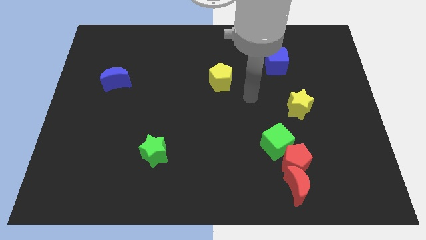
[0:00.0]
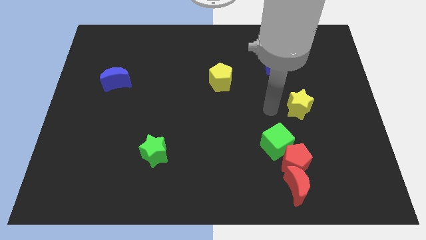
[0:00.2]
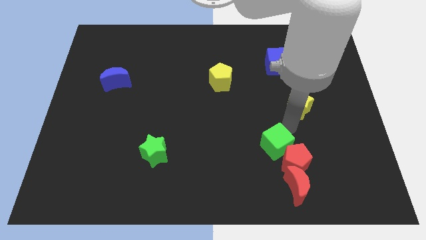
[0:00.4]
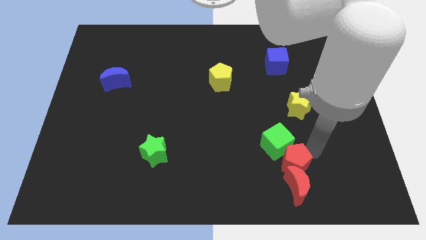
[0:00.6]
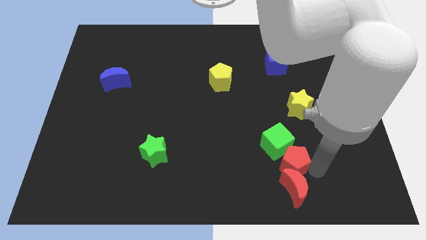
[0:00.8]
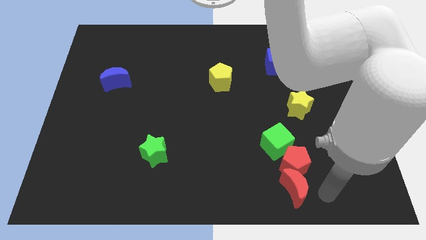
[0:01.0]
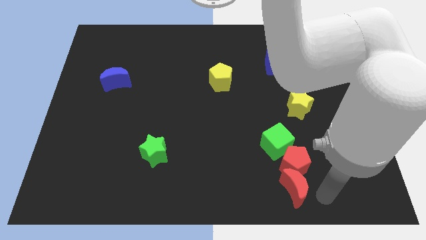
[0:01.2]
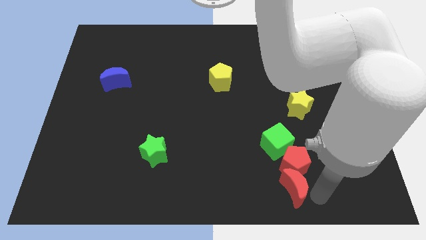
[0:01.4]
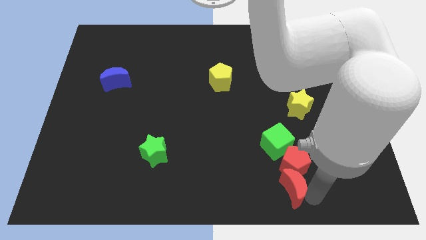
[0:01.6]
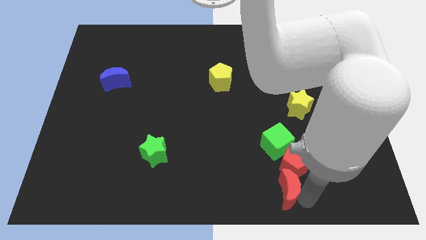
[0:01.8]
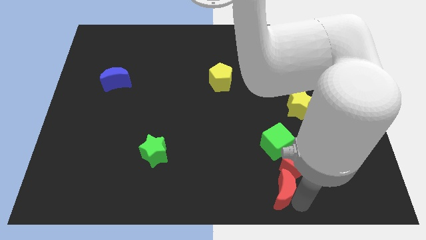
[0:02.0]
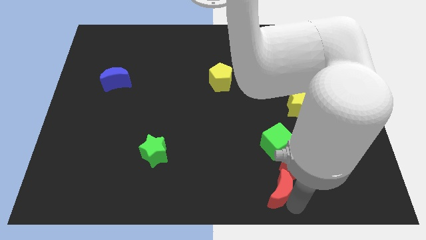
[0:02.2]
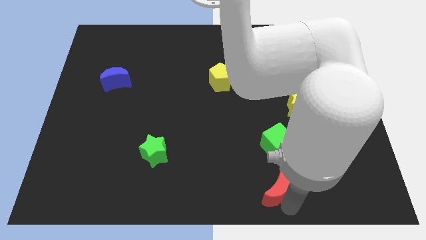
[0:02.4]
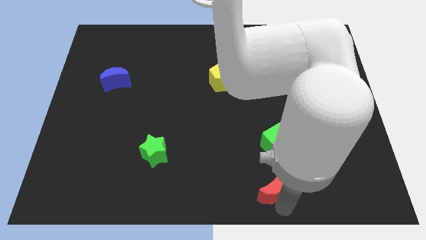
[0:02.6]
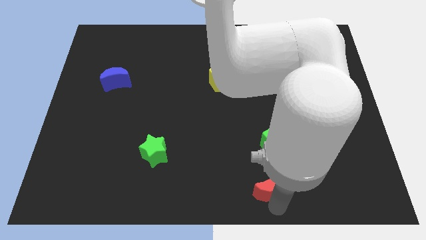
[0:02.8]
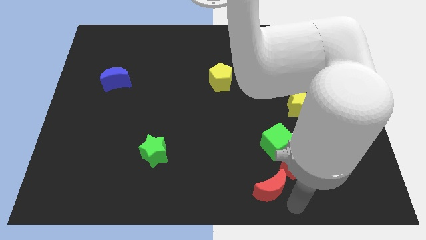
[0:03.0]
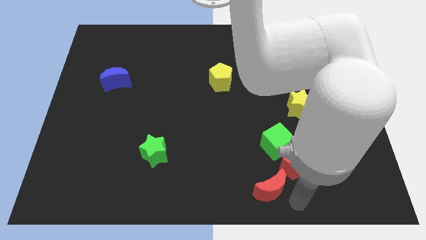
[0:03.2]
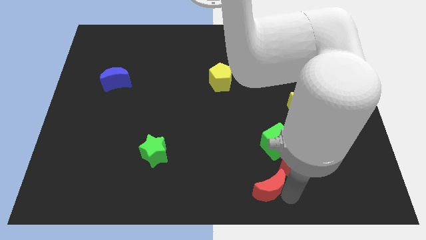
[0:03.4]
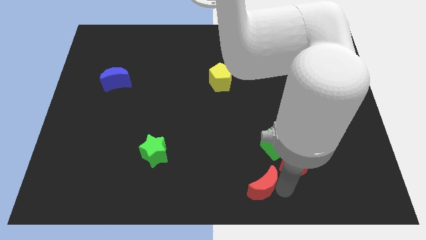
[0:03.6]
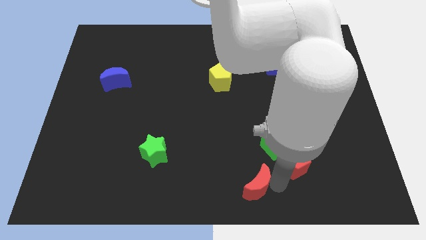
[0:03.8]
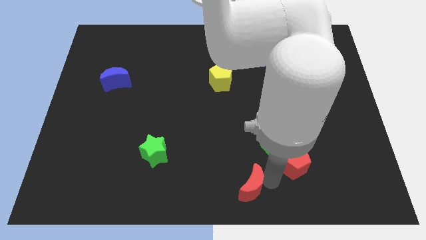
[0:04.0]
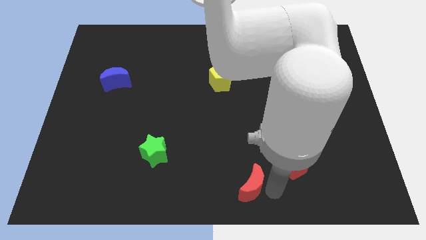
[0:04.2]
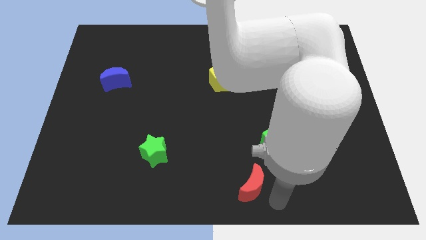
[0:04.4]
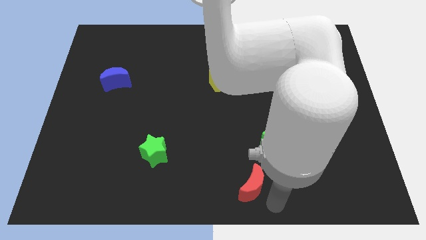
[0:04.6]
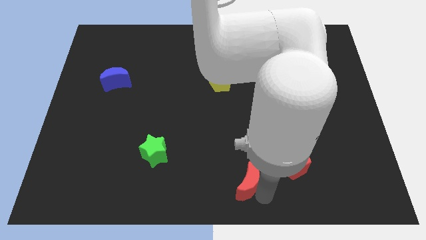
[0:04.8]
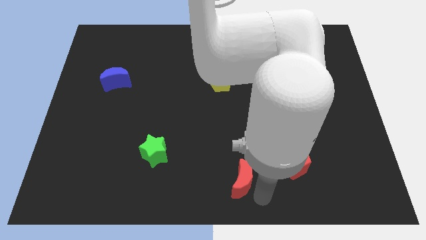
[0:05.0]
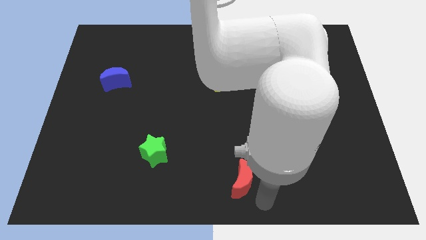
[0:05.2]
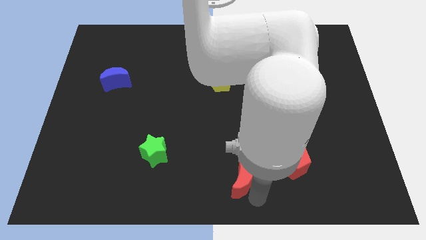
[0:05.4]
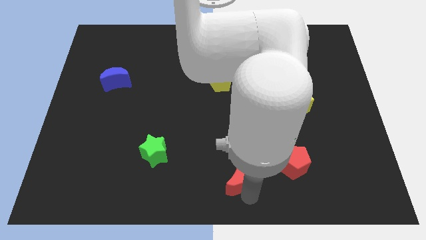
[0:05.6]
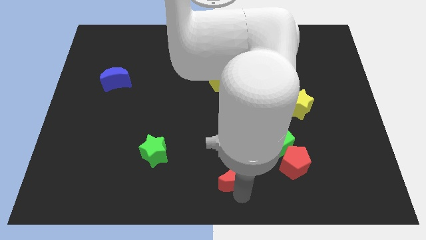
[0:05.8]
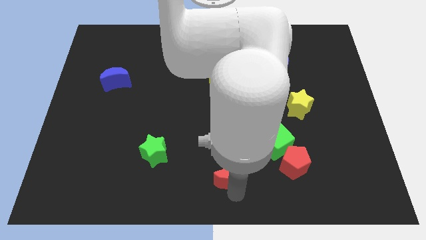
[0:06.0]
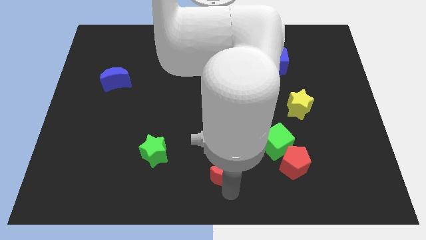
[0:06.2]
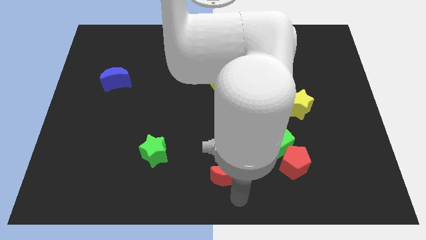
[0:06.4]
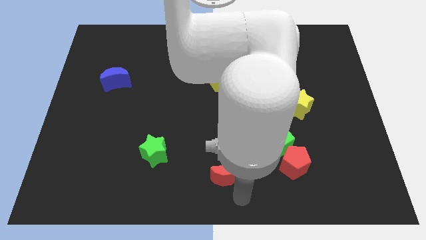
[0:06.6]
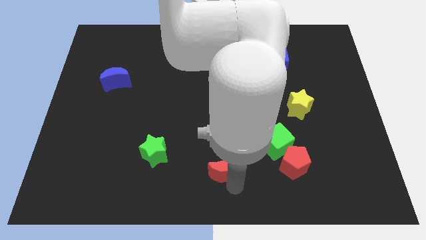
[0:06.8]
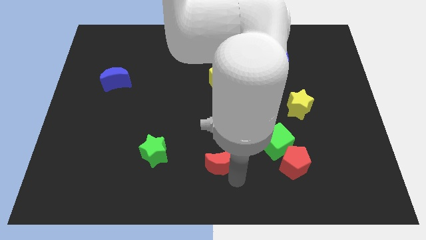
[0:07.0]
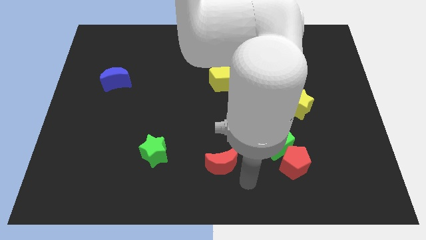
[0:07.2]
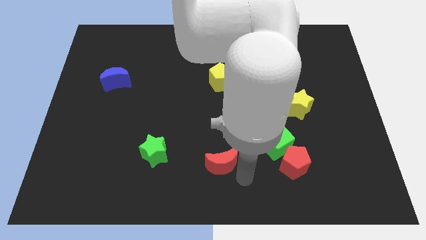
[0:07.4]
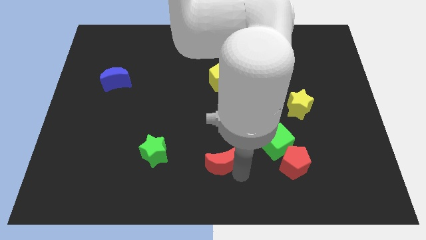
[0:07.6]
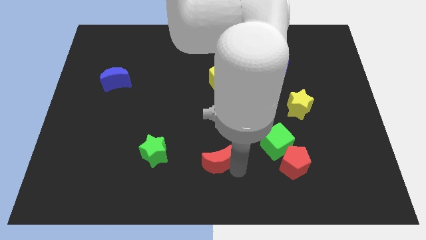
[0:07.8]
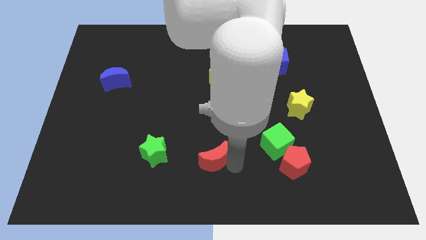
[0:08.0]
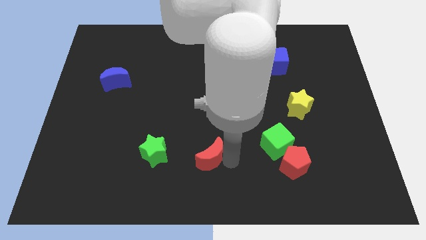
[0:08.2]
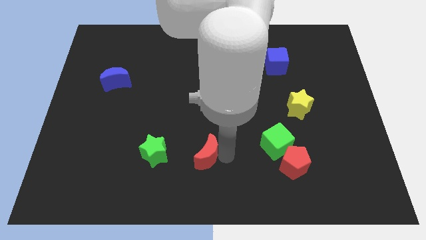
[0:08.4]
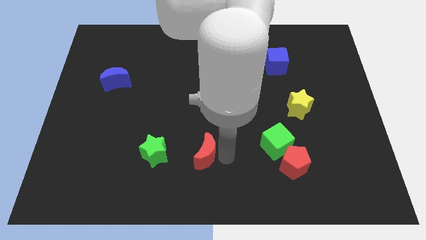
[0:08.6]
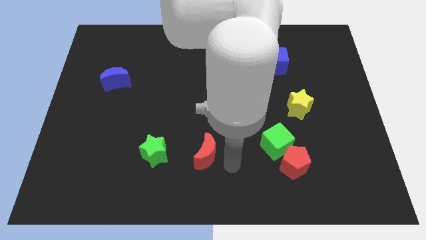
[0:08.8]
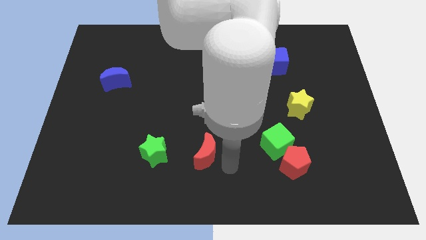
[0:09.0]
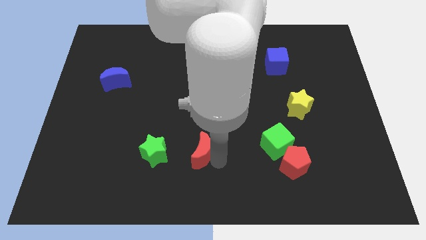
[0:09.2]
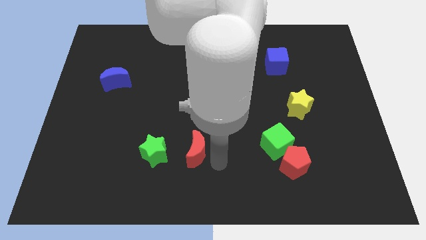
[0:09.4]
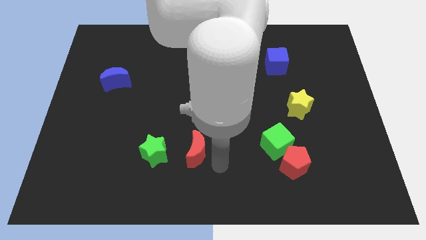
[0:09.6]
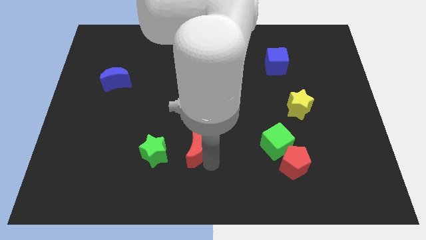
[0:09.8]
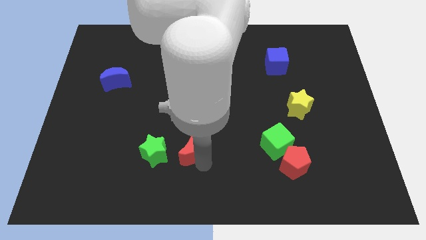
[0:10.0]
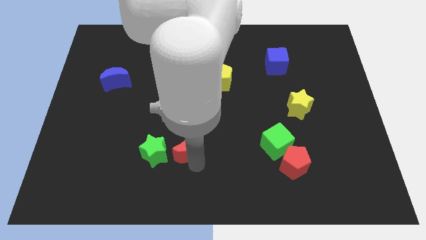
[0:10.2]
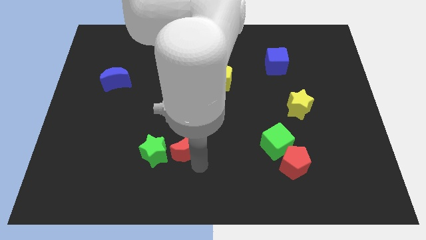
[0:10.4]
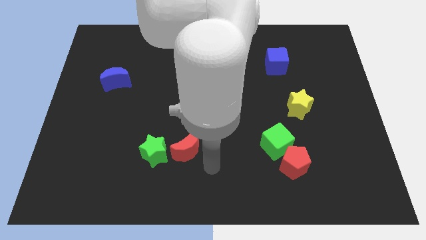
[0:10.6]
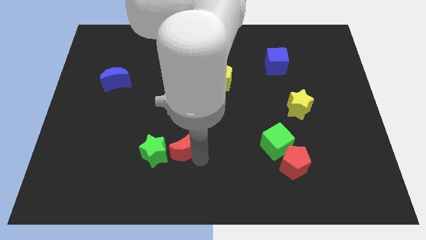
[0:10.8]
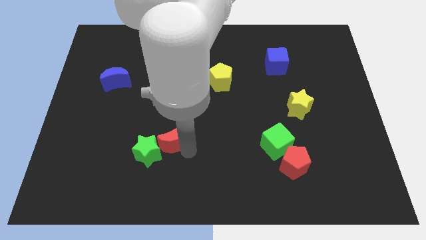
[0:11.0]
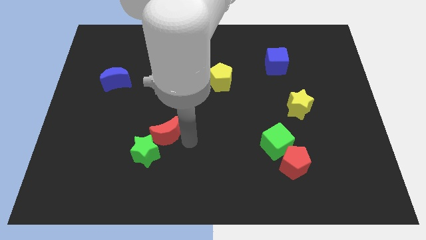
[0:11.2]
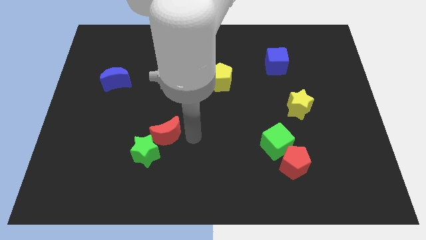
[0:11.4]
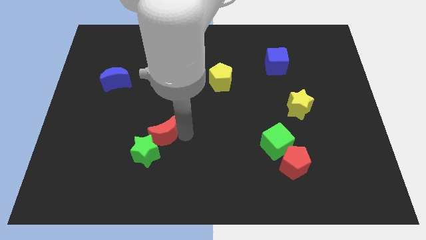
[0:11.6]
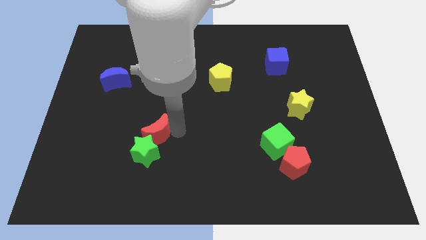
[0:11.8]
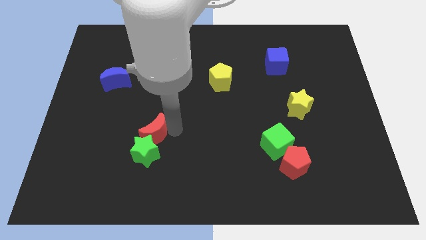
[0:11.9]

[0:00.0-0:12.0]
move the red moon to the top left of the green star

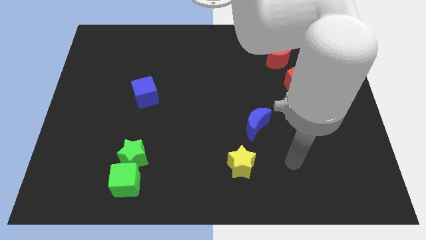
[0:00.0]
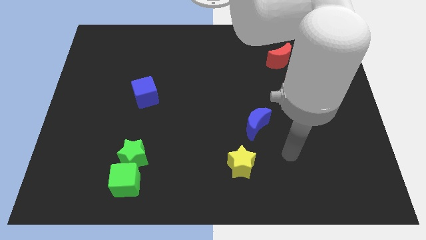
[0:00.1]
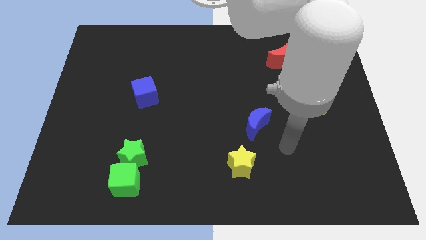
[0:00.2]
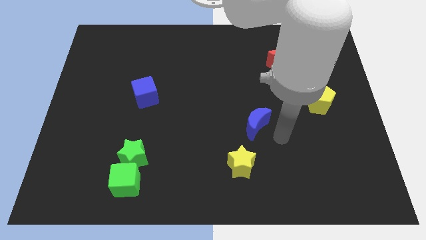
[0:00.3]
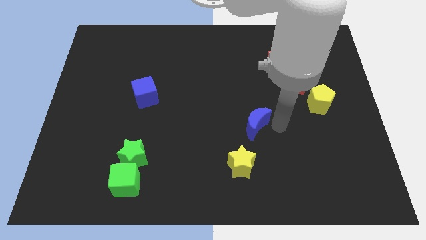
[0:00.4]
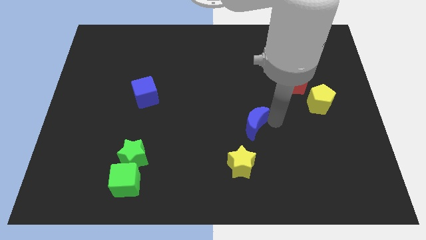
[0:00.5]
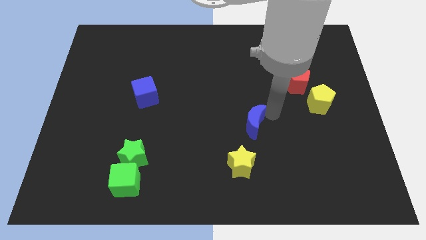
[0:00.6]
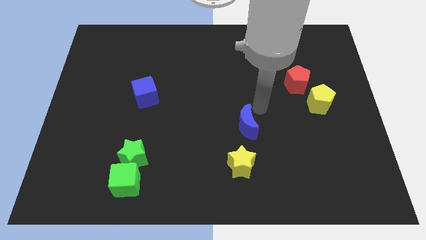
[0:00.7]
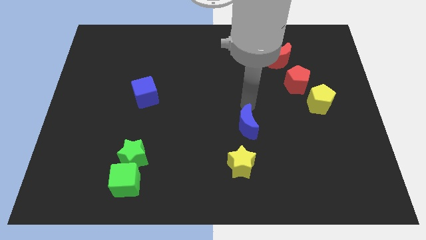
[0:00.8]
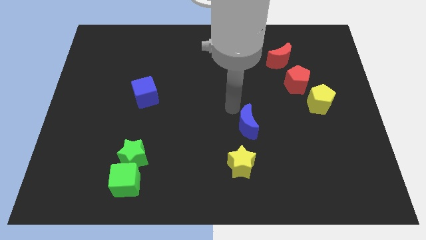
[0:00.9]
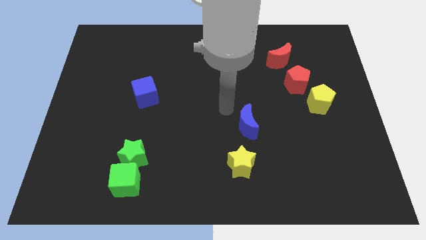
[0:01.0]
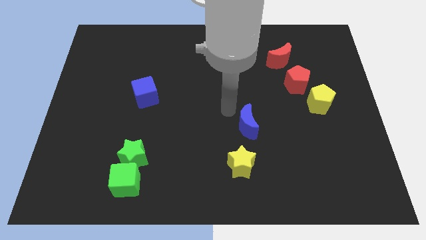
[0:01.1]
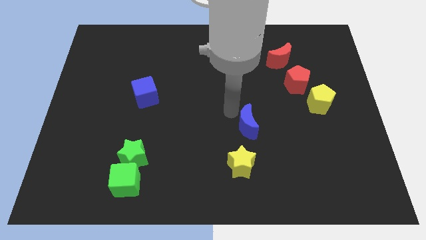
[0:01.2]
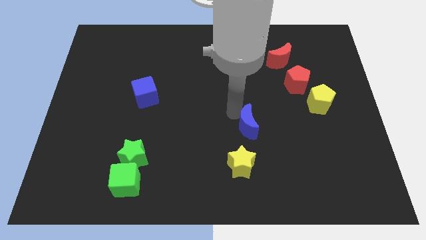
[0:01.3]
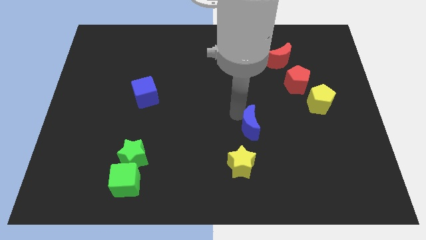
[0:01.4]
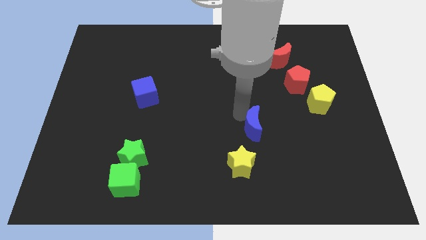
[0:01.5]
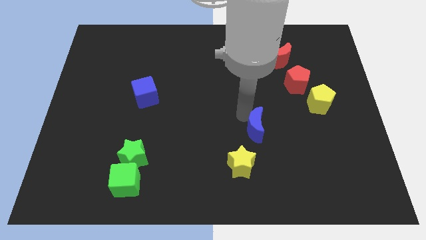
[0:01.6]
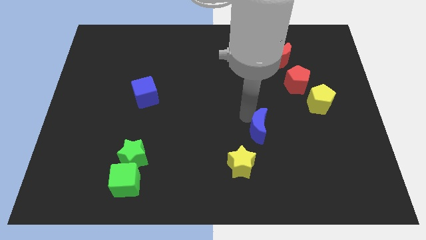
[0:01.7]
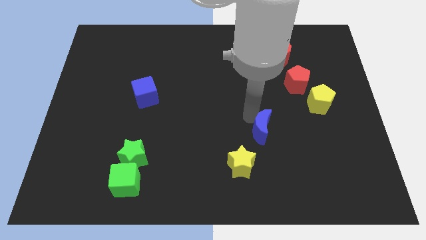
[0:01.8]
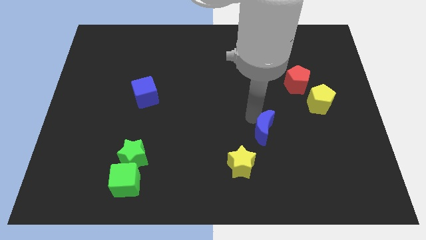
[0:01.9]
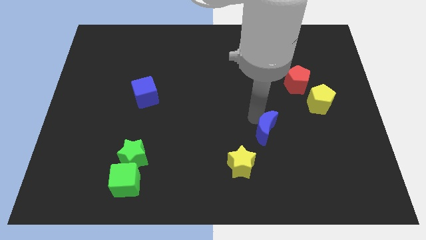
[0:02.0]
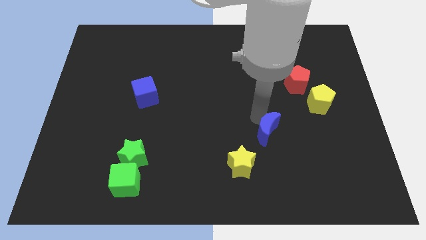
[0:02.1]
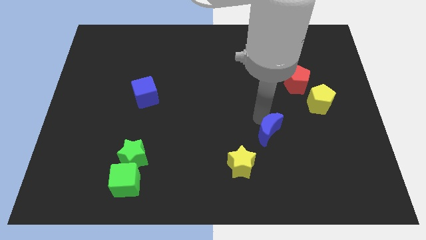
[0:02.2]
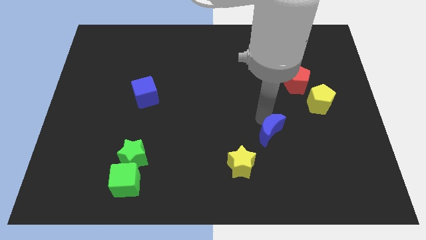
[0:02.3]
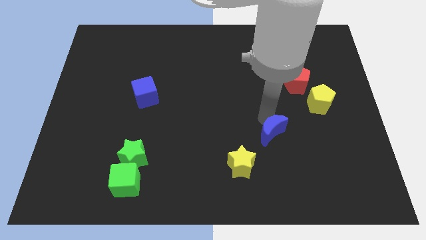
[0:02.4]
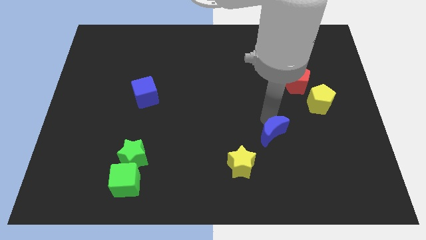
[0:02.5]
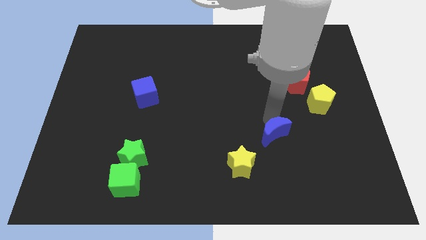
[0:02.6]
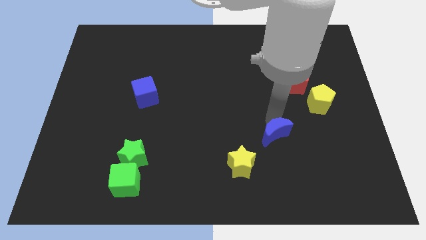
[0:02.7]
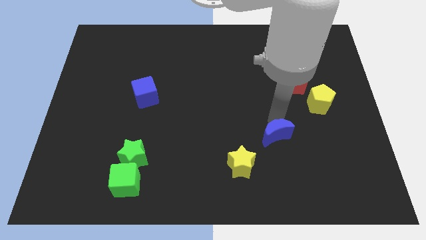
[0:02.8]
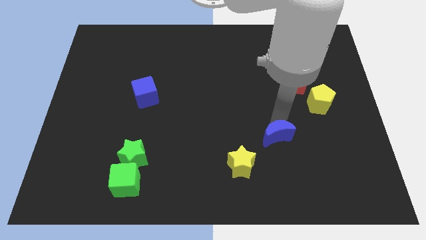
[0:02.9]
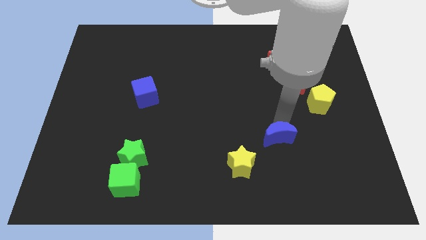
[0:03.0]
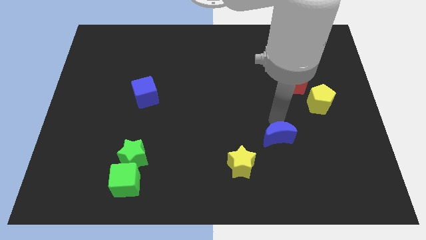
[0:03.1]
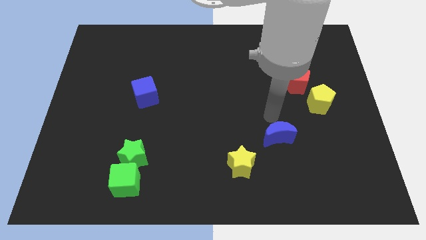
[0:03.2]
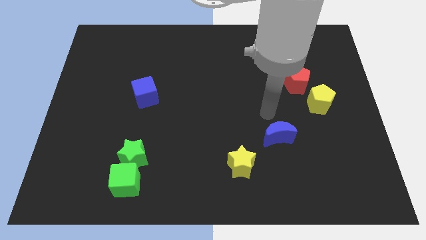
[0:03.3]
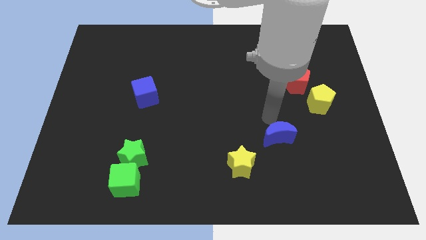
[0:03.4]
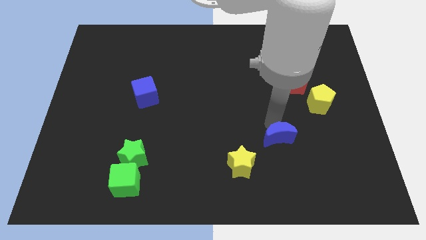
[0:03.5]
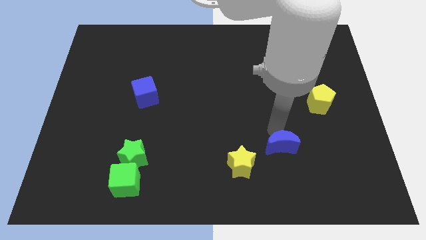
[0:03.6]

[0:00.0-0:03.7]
slide the blue moon just right of the yellow star
